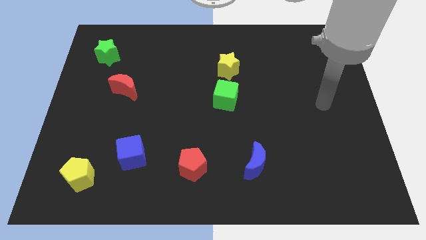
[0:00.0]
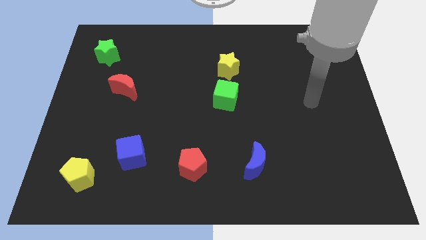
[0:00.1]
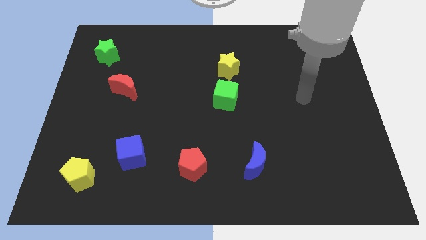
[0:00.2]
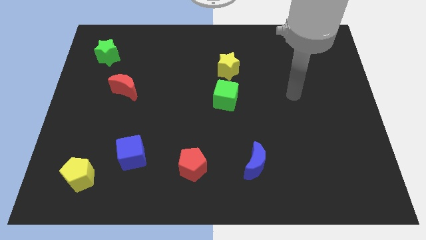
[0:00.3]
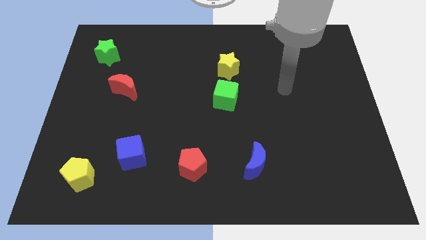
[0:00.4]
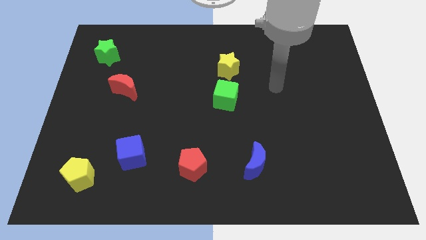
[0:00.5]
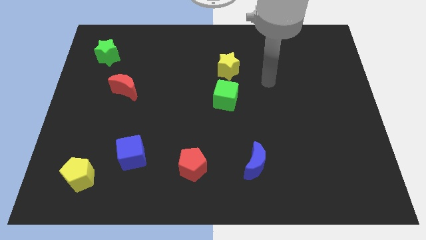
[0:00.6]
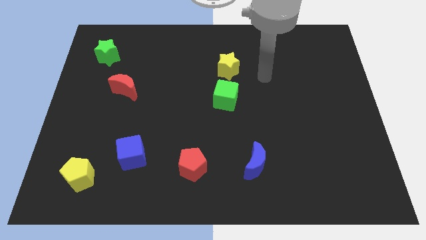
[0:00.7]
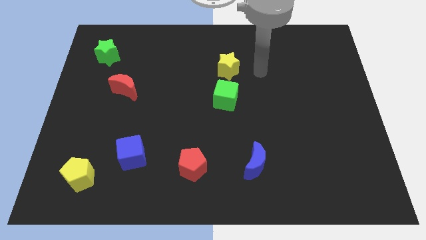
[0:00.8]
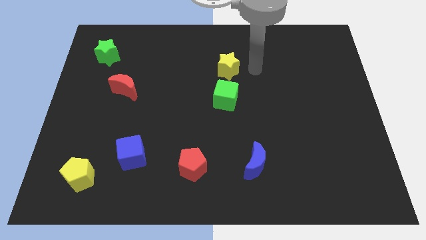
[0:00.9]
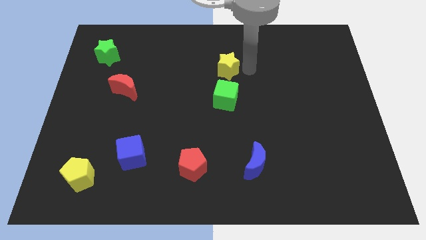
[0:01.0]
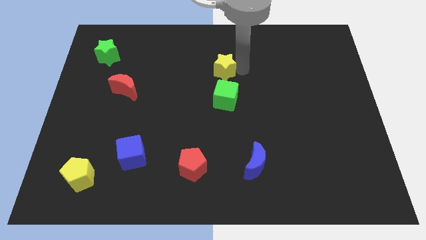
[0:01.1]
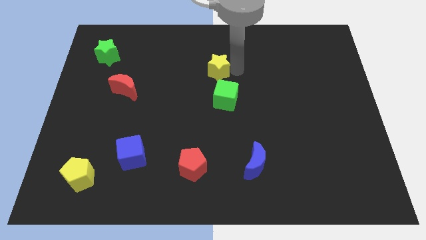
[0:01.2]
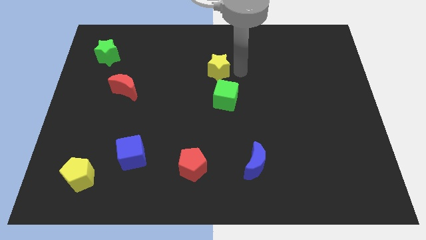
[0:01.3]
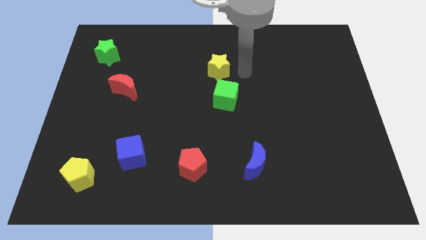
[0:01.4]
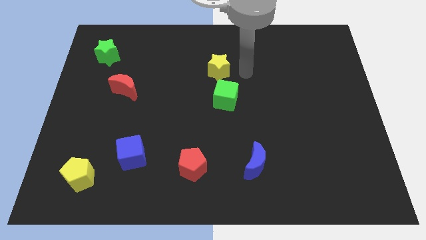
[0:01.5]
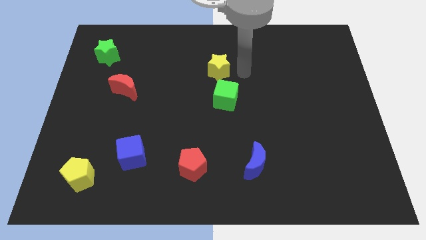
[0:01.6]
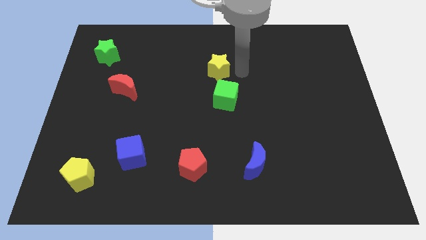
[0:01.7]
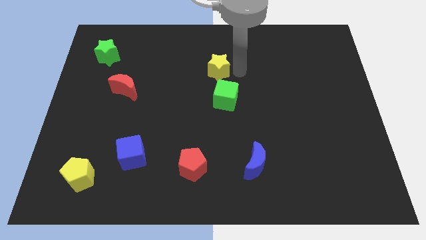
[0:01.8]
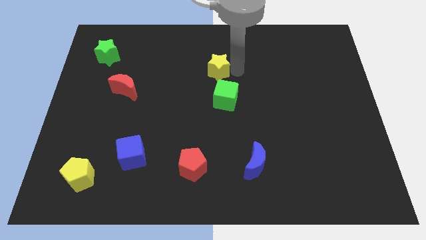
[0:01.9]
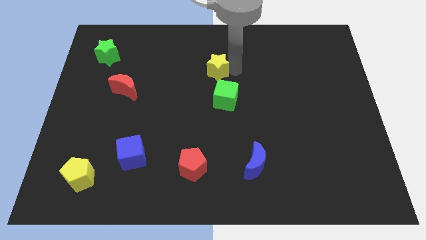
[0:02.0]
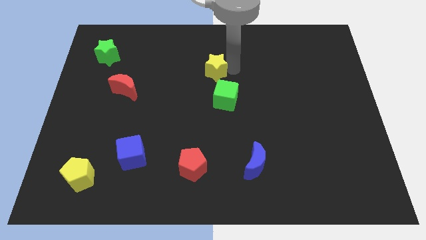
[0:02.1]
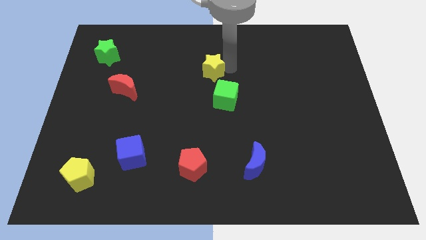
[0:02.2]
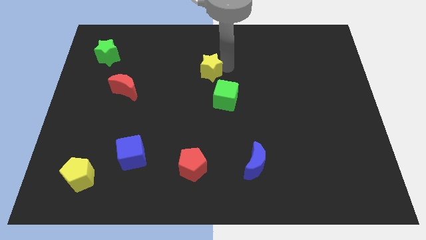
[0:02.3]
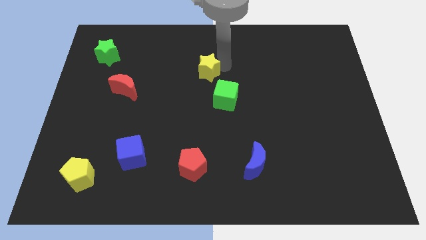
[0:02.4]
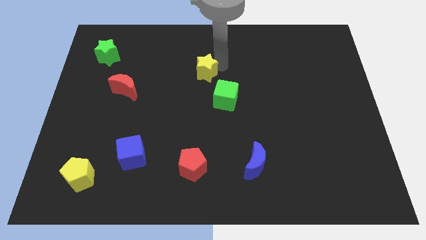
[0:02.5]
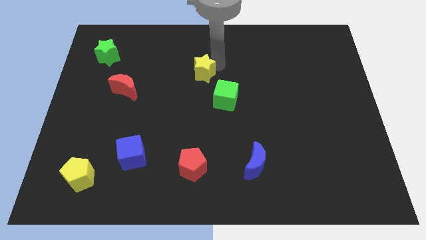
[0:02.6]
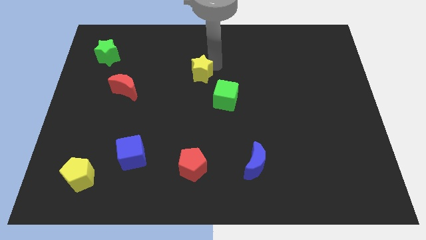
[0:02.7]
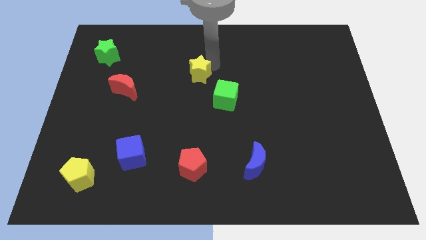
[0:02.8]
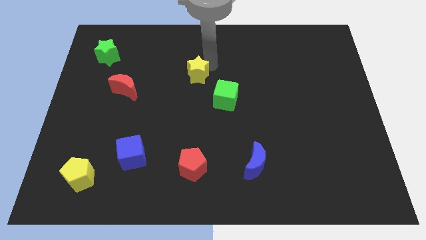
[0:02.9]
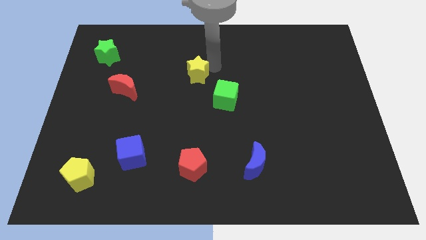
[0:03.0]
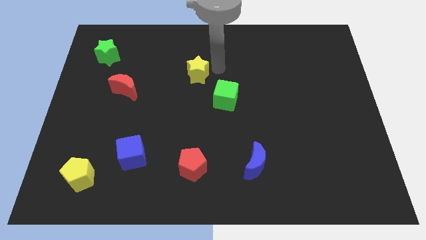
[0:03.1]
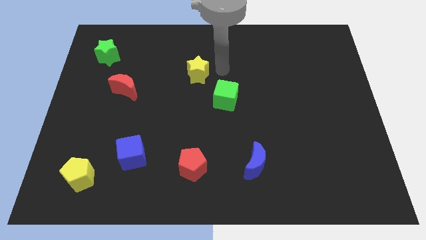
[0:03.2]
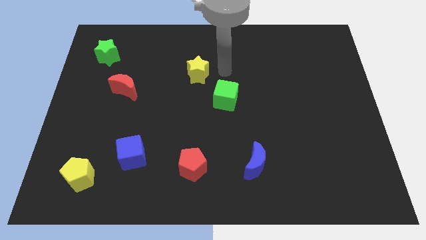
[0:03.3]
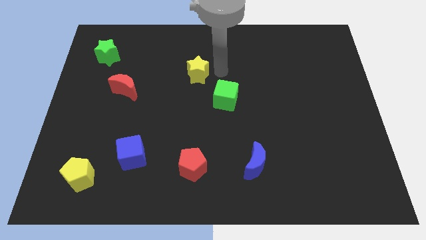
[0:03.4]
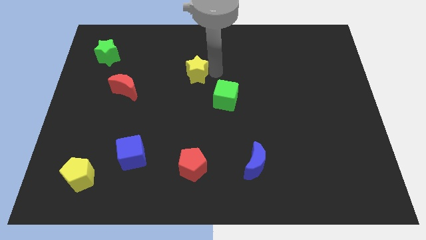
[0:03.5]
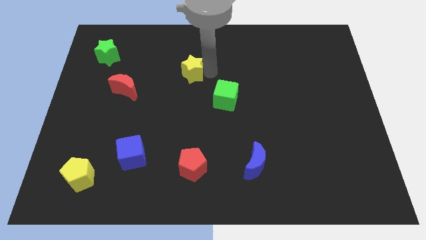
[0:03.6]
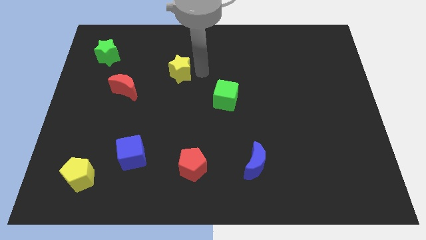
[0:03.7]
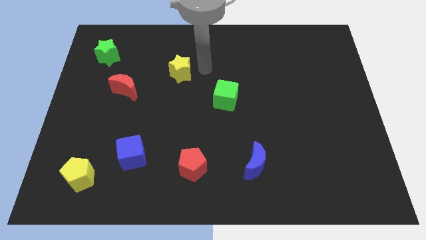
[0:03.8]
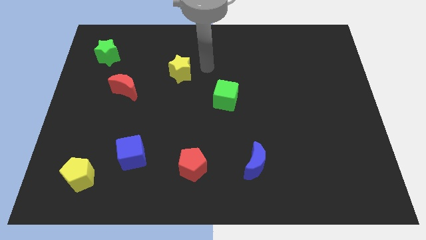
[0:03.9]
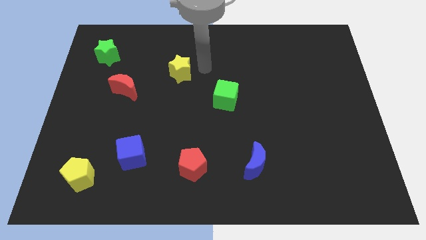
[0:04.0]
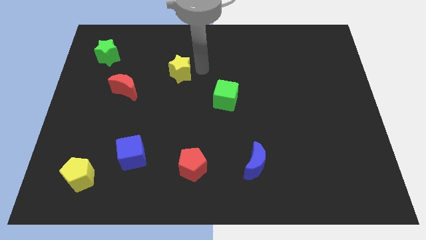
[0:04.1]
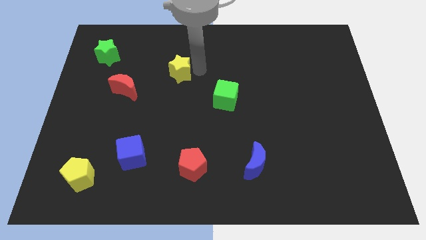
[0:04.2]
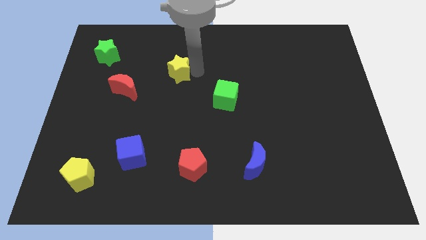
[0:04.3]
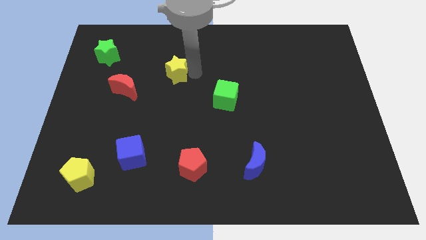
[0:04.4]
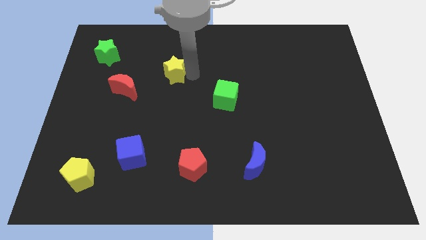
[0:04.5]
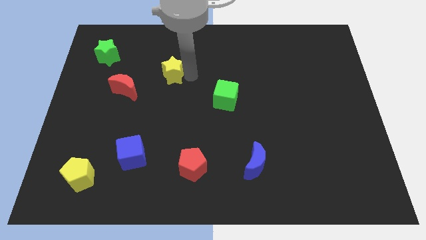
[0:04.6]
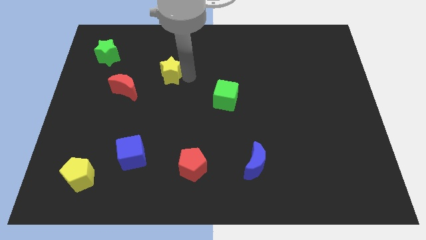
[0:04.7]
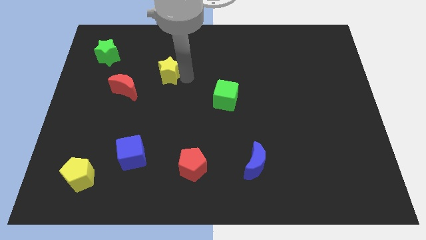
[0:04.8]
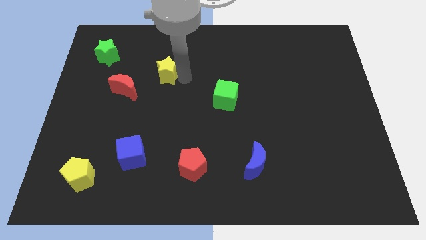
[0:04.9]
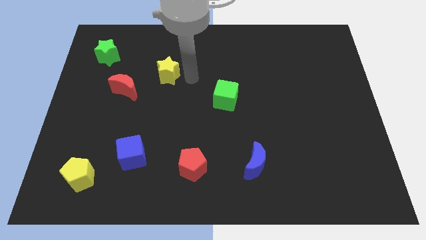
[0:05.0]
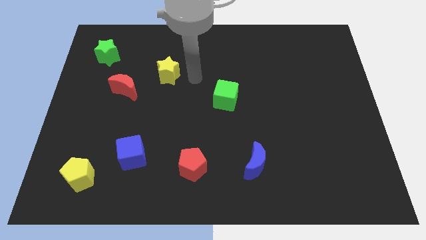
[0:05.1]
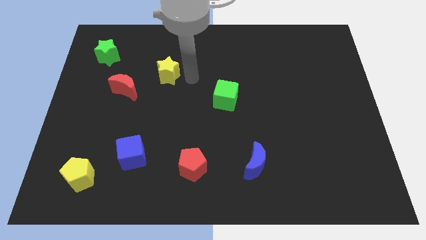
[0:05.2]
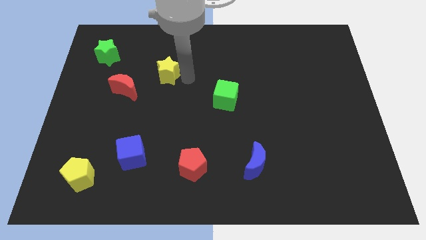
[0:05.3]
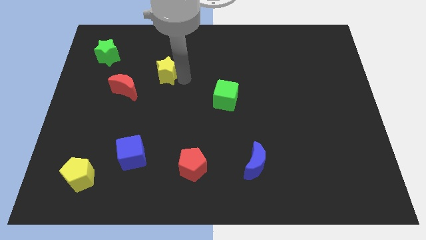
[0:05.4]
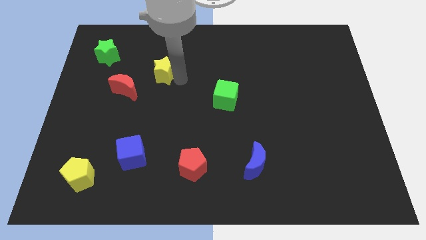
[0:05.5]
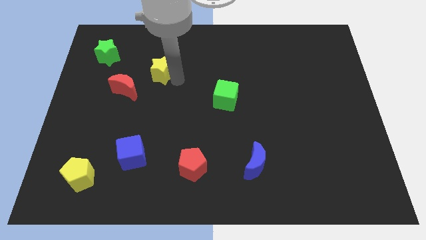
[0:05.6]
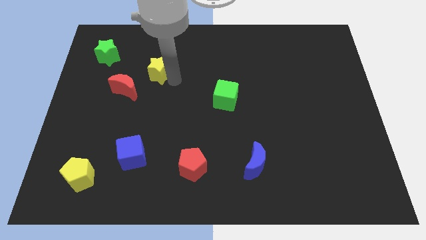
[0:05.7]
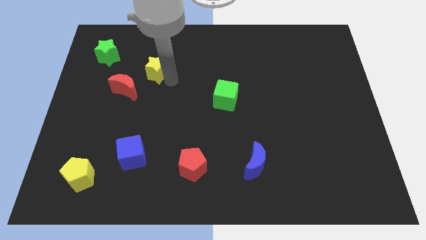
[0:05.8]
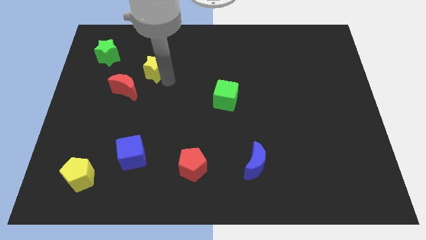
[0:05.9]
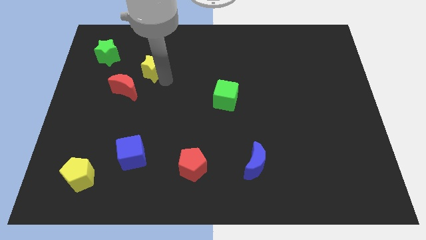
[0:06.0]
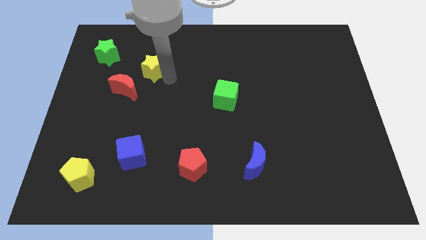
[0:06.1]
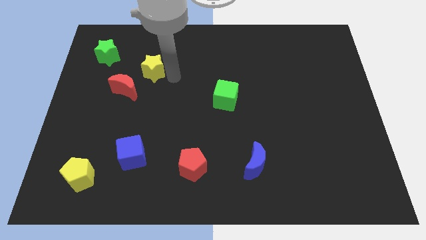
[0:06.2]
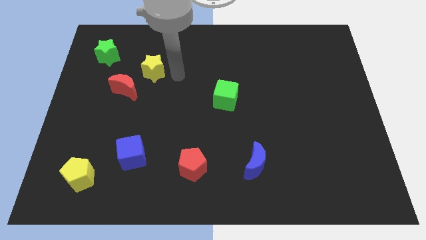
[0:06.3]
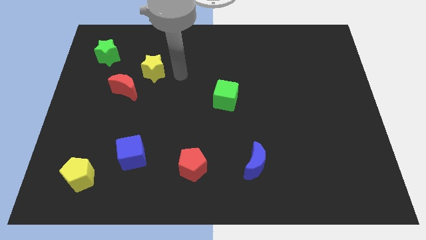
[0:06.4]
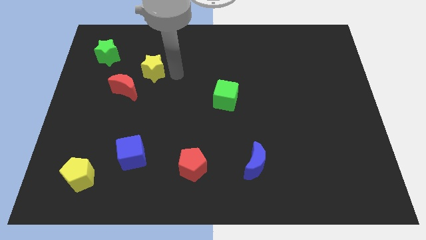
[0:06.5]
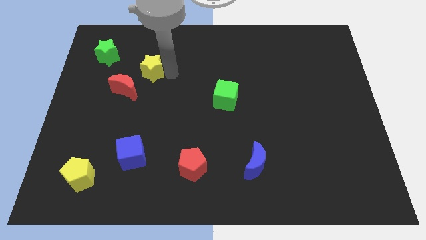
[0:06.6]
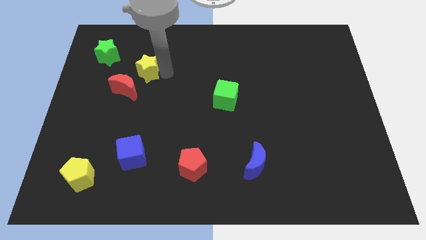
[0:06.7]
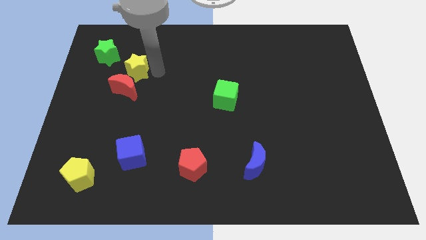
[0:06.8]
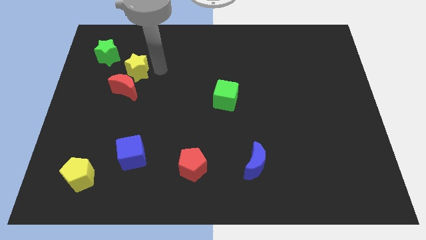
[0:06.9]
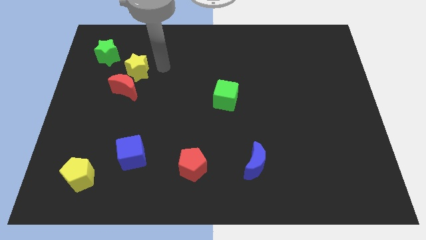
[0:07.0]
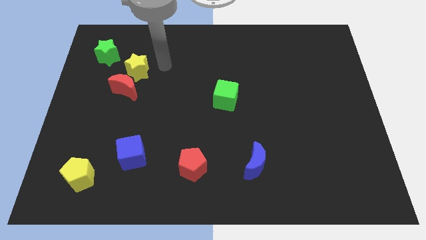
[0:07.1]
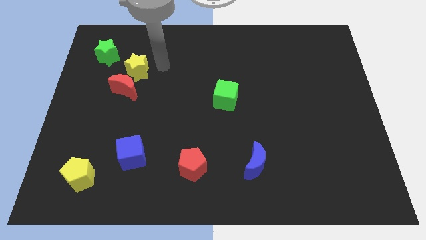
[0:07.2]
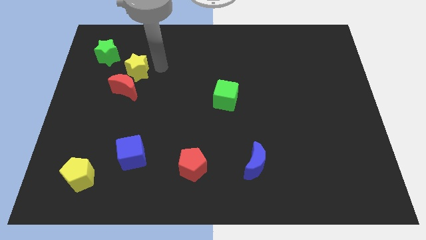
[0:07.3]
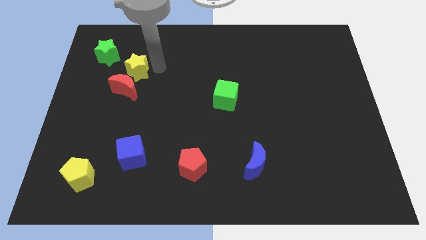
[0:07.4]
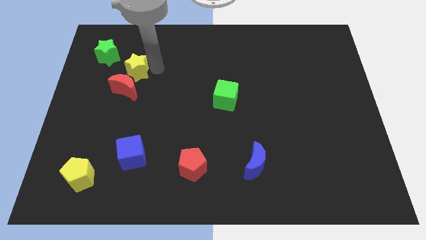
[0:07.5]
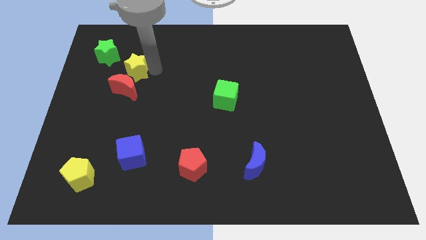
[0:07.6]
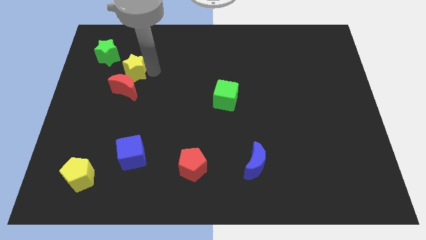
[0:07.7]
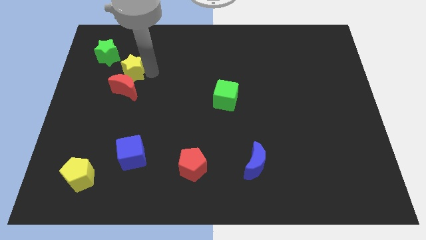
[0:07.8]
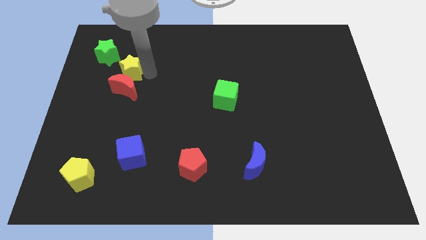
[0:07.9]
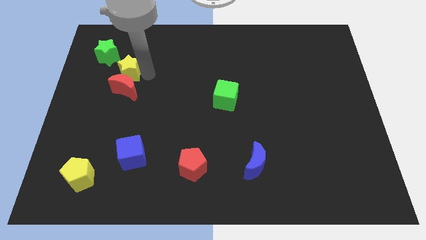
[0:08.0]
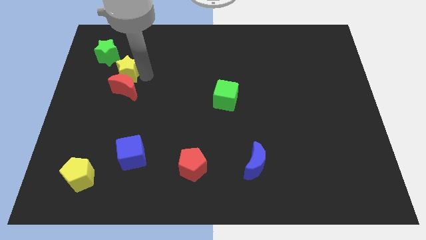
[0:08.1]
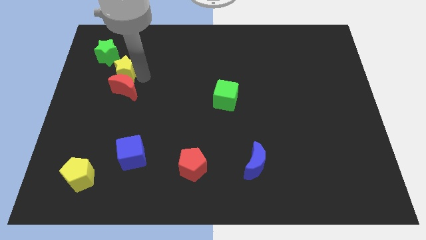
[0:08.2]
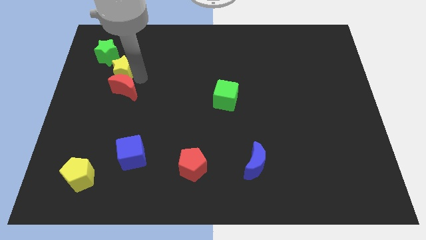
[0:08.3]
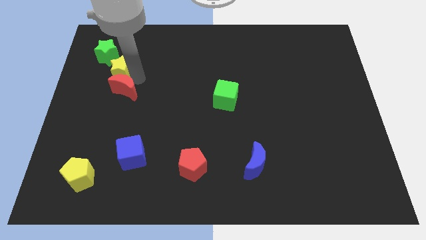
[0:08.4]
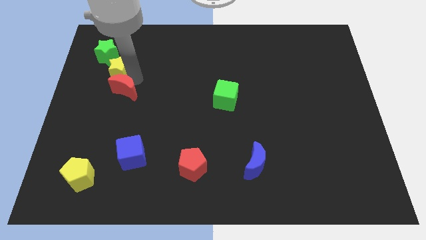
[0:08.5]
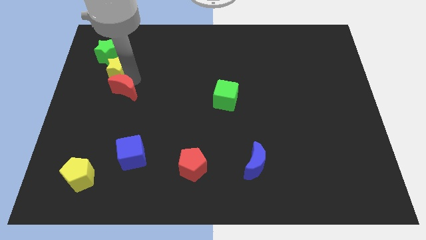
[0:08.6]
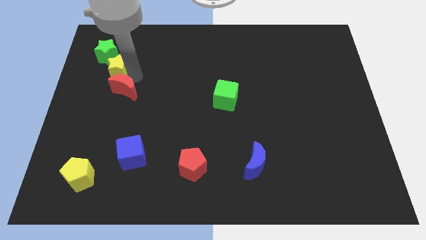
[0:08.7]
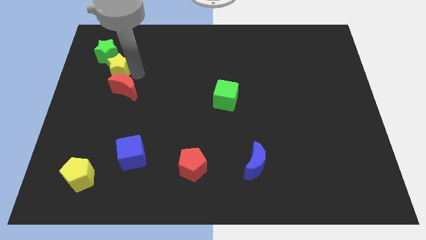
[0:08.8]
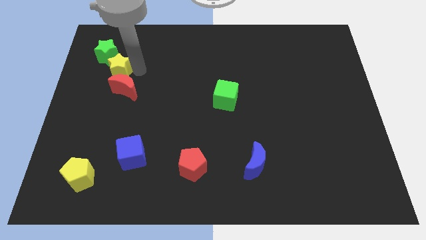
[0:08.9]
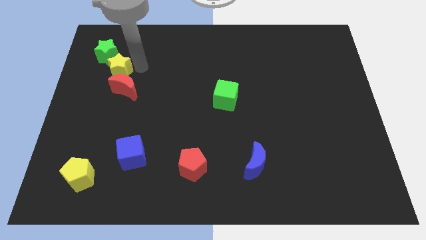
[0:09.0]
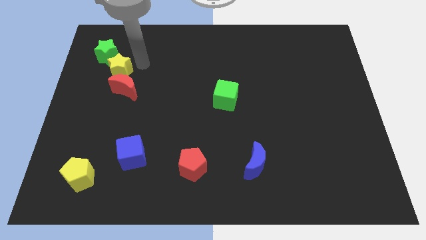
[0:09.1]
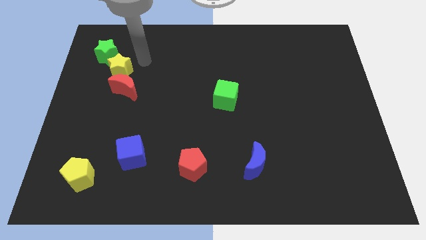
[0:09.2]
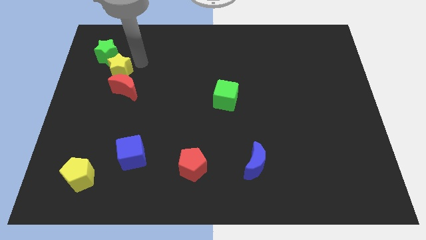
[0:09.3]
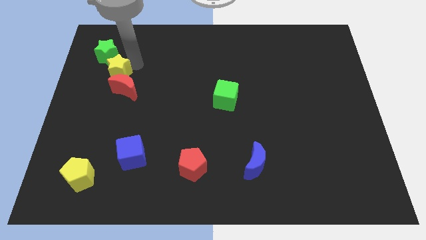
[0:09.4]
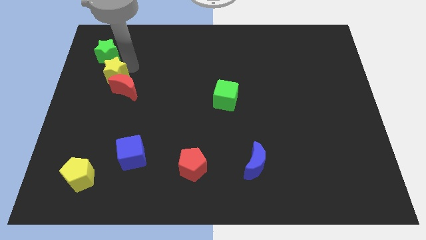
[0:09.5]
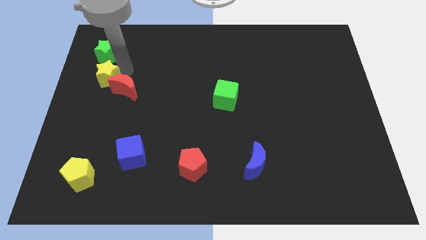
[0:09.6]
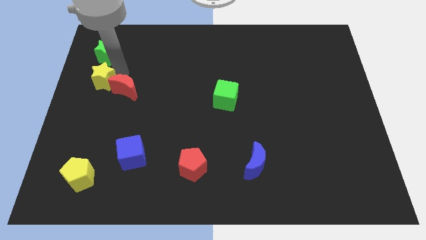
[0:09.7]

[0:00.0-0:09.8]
slide the yellow star to the left side
